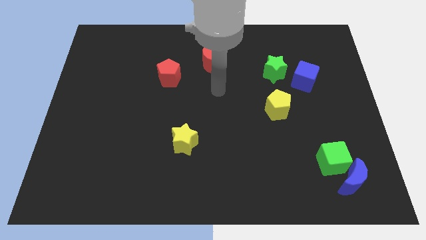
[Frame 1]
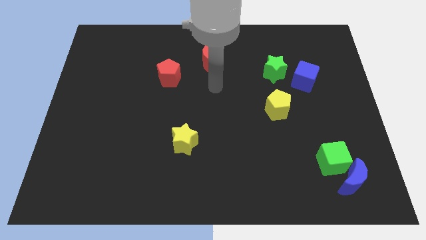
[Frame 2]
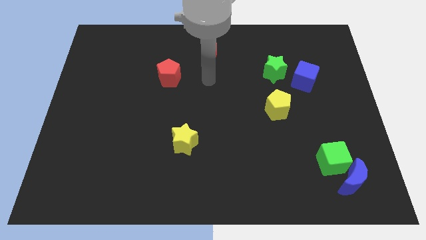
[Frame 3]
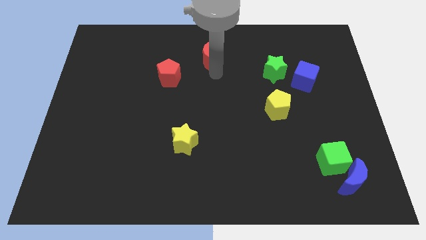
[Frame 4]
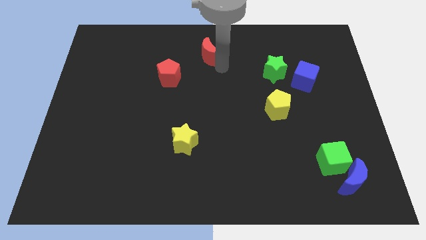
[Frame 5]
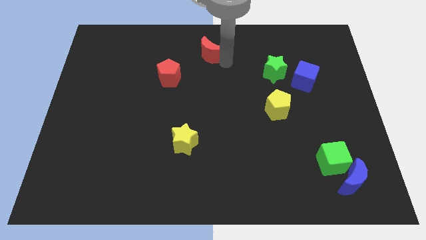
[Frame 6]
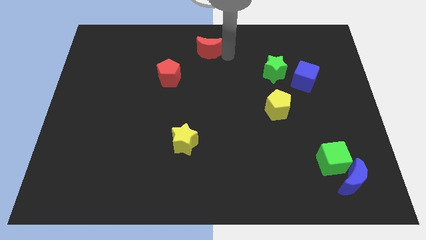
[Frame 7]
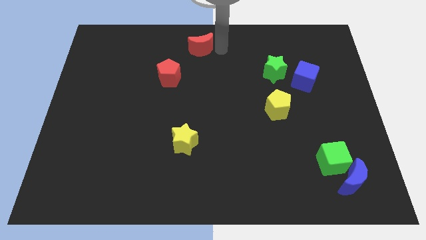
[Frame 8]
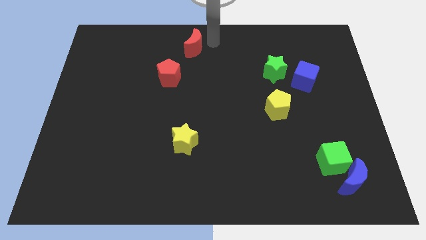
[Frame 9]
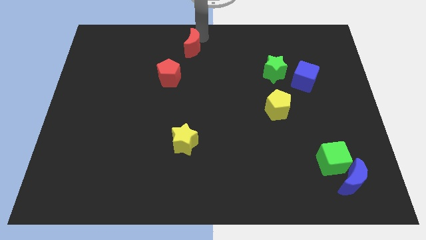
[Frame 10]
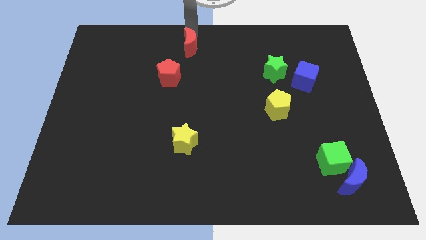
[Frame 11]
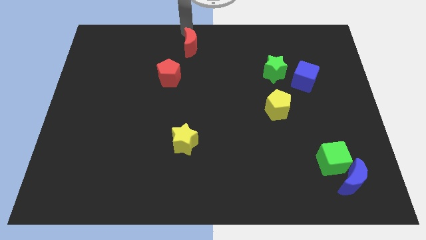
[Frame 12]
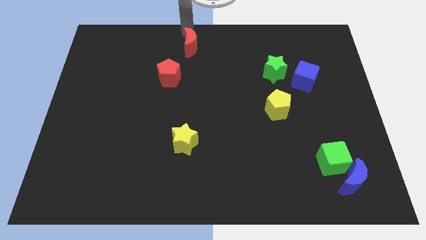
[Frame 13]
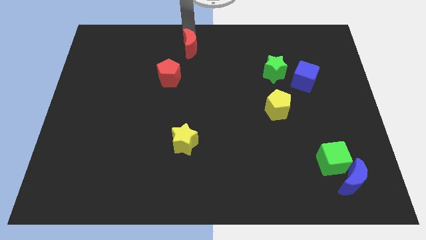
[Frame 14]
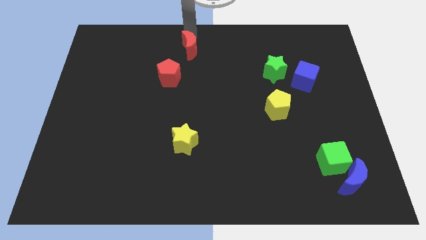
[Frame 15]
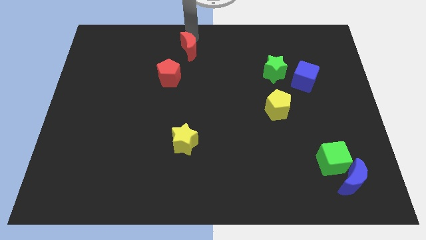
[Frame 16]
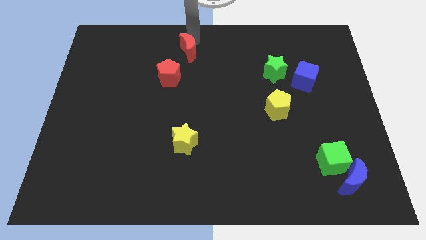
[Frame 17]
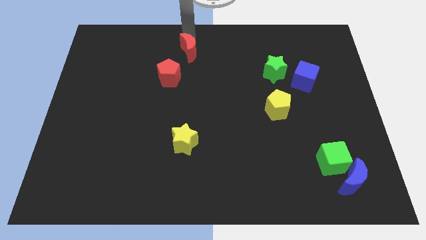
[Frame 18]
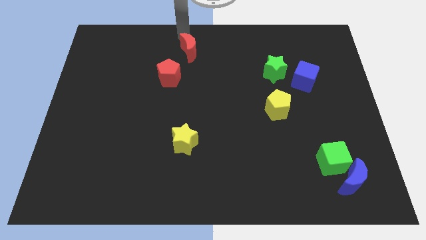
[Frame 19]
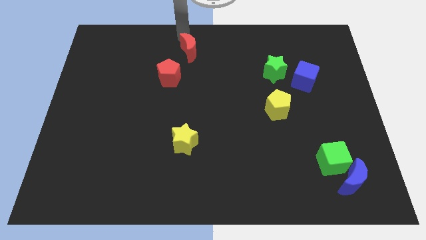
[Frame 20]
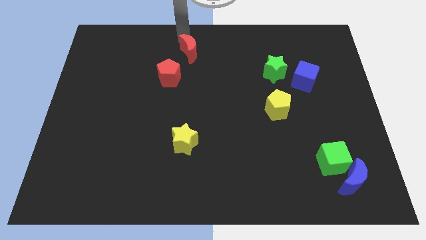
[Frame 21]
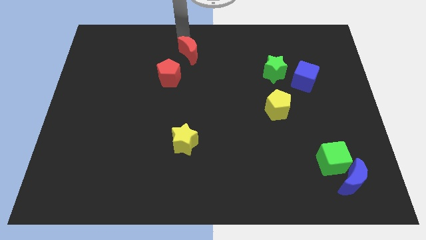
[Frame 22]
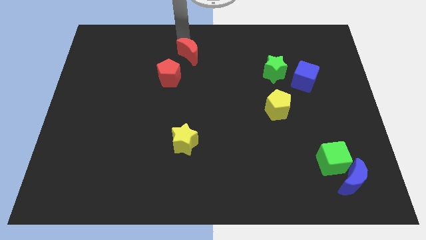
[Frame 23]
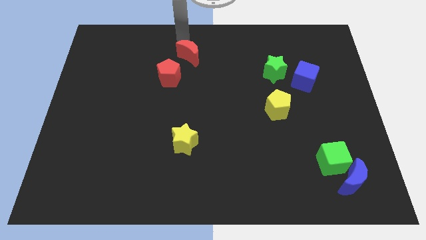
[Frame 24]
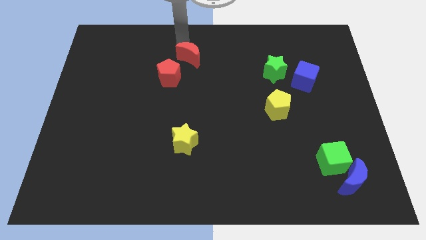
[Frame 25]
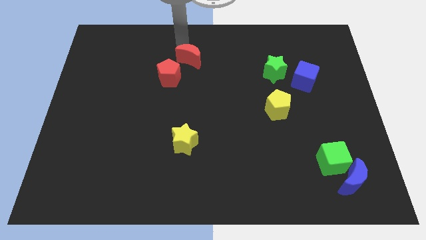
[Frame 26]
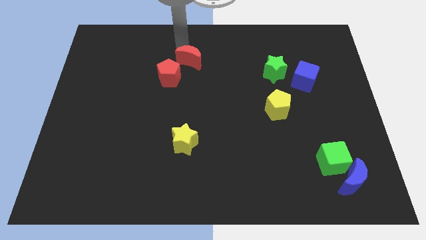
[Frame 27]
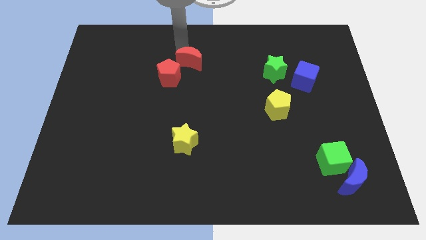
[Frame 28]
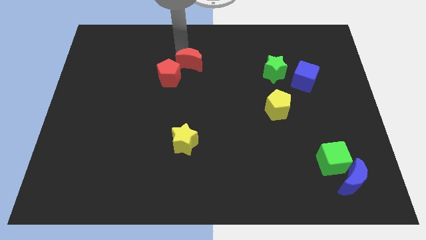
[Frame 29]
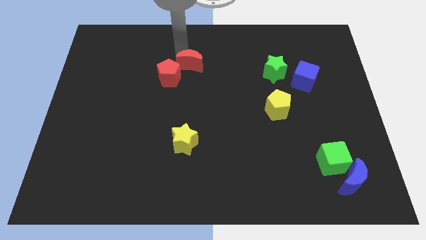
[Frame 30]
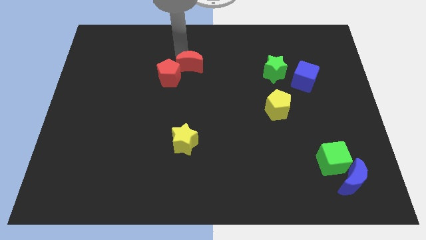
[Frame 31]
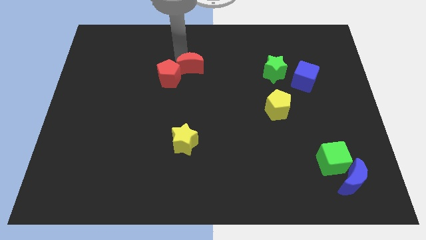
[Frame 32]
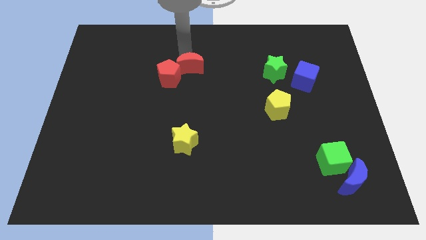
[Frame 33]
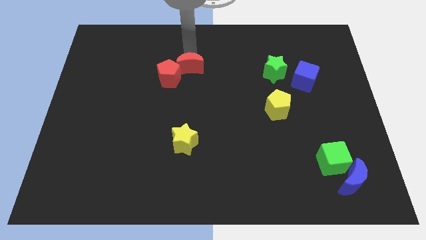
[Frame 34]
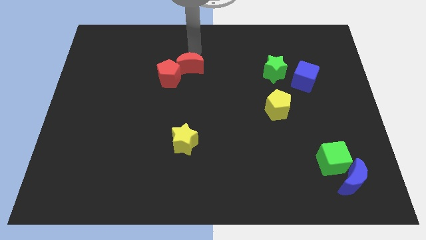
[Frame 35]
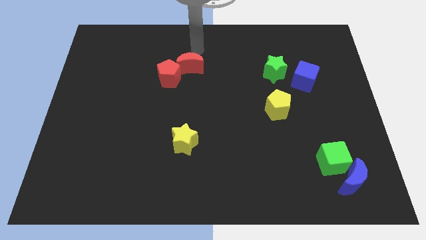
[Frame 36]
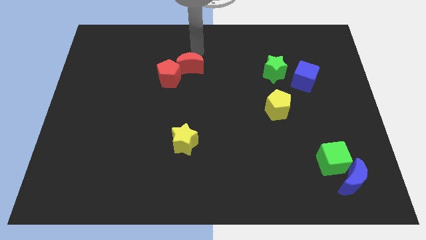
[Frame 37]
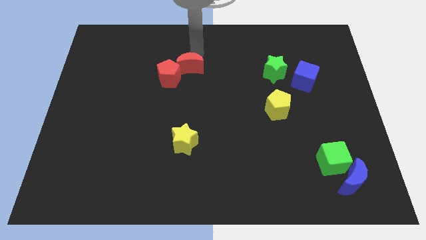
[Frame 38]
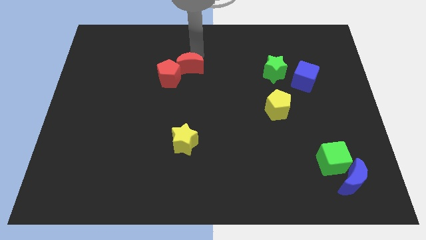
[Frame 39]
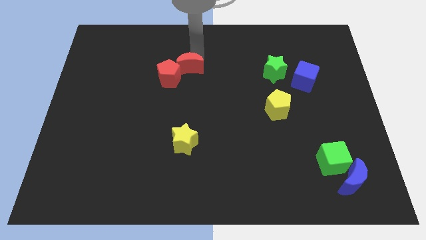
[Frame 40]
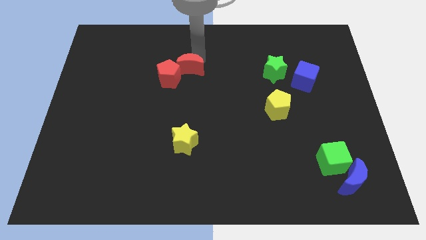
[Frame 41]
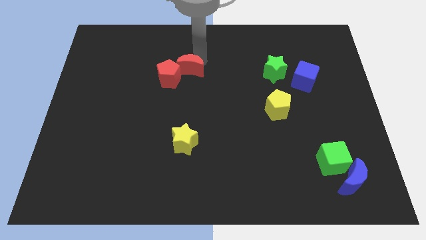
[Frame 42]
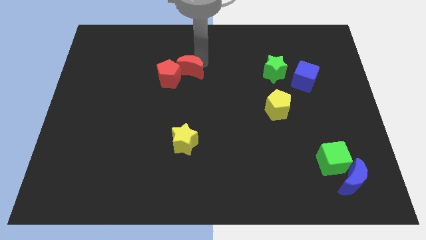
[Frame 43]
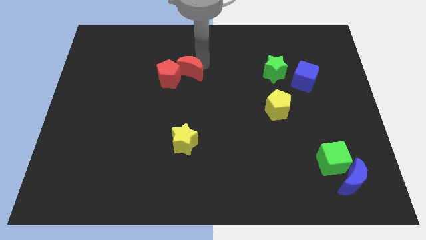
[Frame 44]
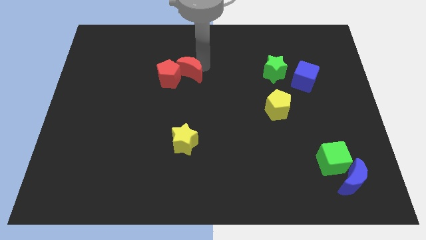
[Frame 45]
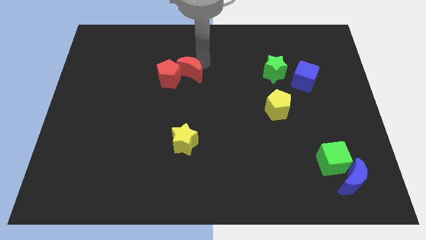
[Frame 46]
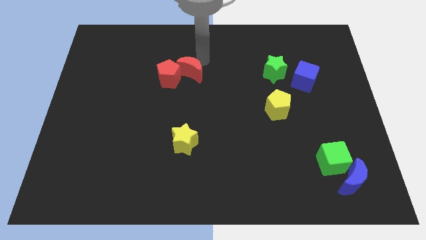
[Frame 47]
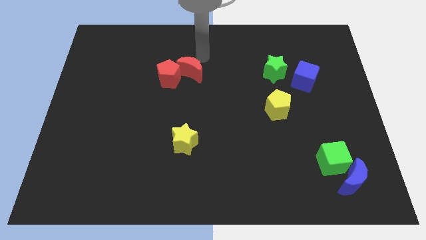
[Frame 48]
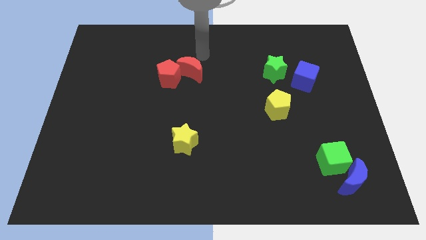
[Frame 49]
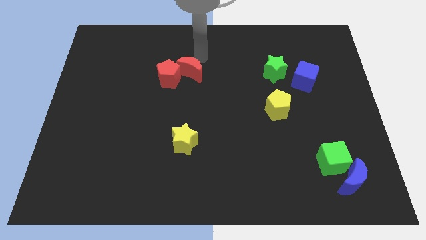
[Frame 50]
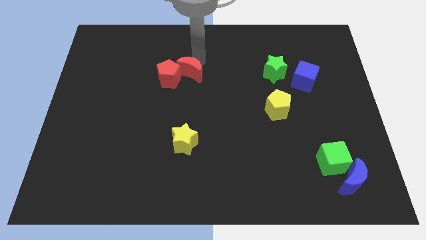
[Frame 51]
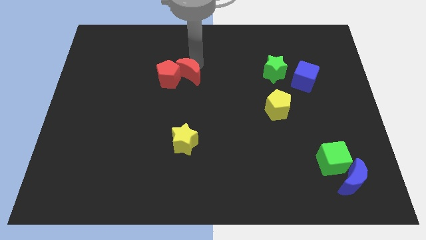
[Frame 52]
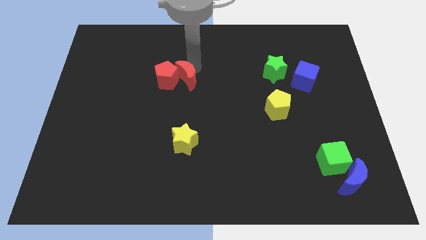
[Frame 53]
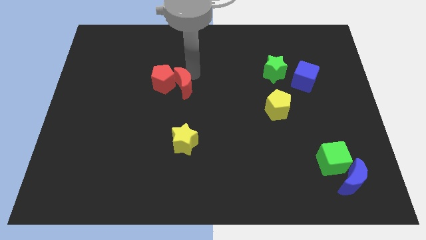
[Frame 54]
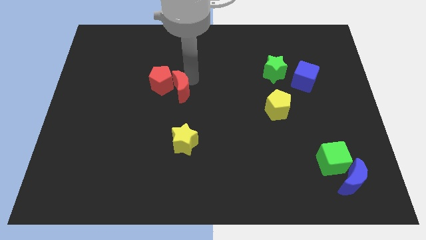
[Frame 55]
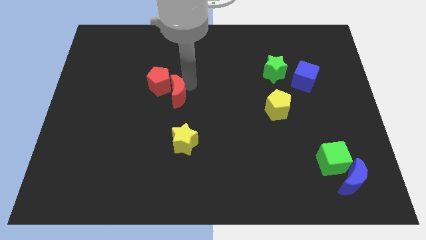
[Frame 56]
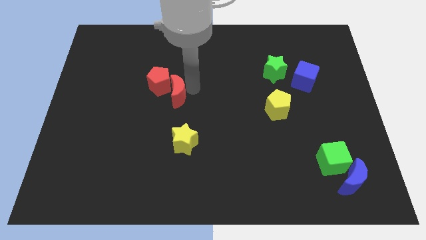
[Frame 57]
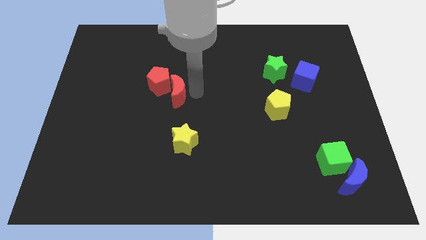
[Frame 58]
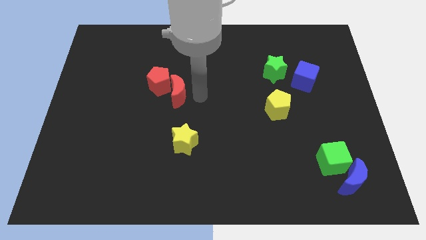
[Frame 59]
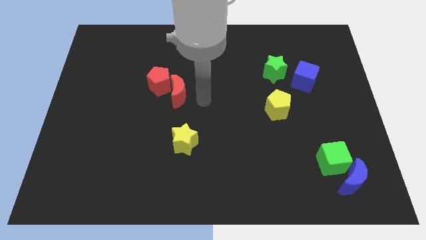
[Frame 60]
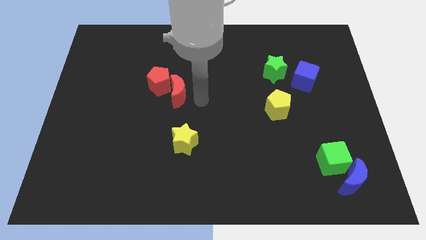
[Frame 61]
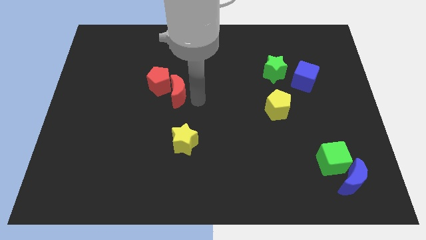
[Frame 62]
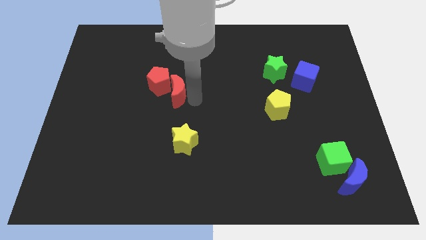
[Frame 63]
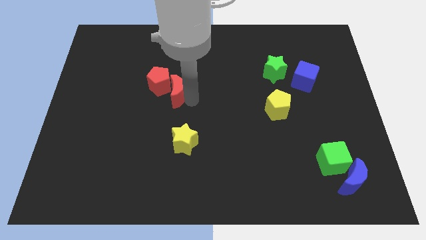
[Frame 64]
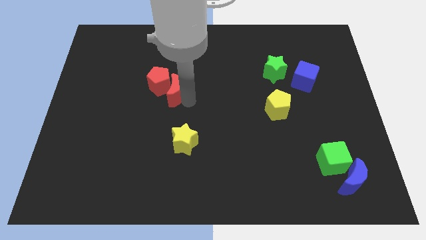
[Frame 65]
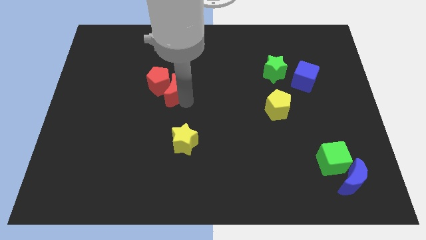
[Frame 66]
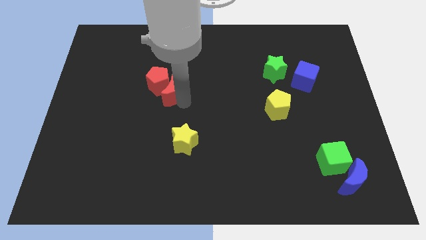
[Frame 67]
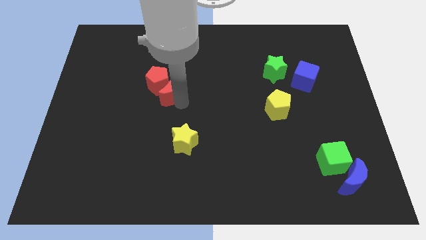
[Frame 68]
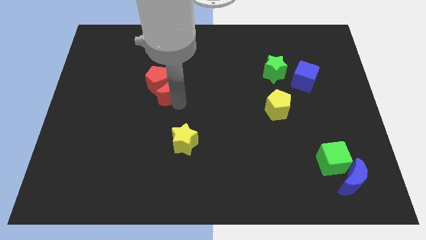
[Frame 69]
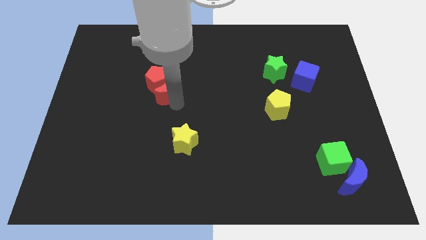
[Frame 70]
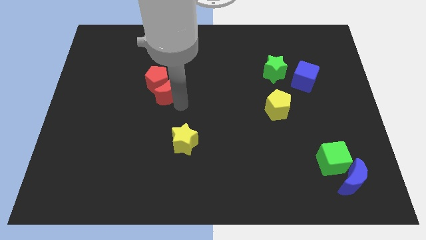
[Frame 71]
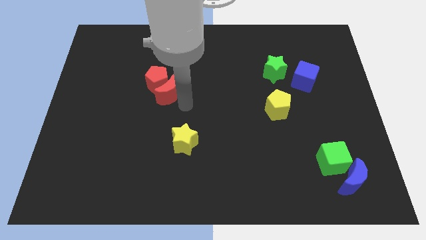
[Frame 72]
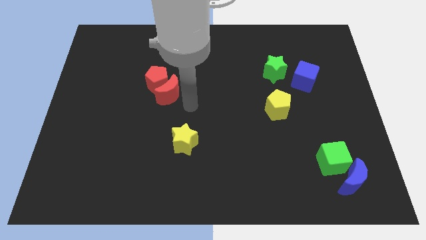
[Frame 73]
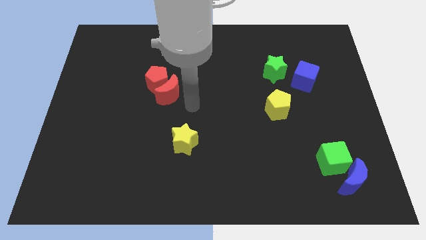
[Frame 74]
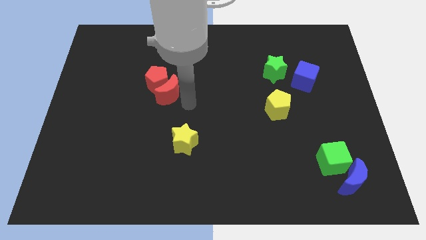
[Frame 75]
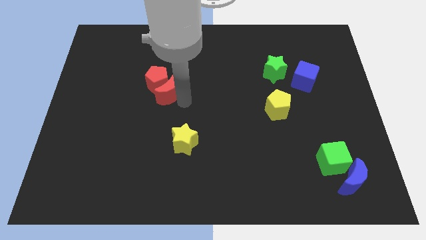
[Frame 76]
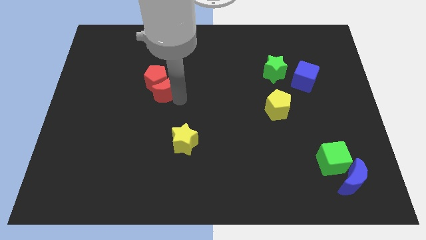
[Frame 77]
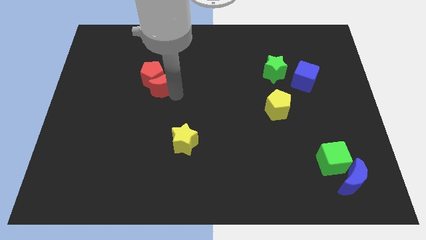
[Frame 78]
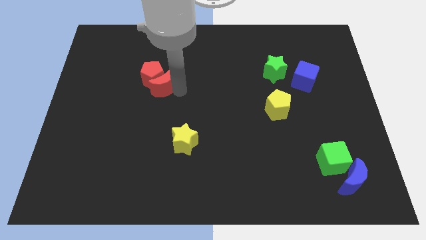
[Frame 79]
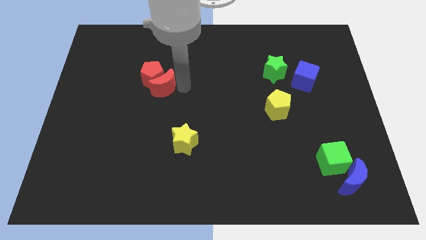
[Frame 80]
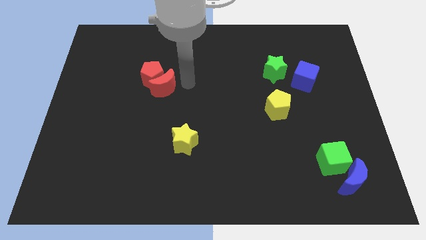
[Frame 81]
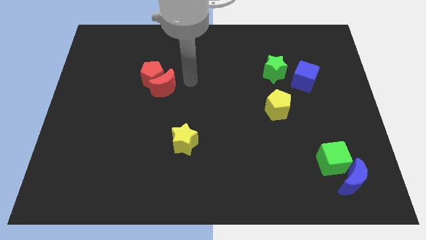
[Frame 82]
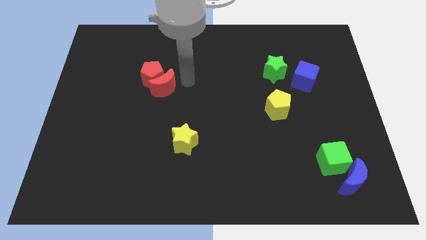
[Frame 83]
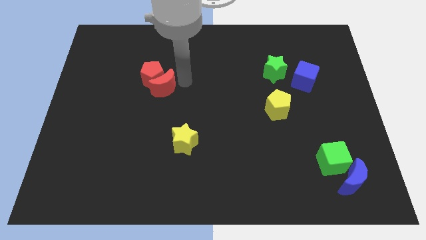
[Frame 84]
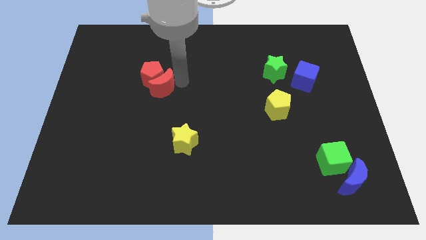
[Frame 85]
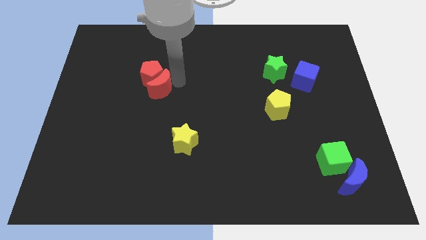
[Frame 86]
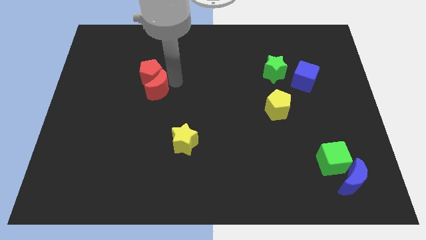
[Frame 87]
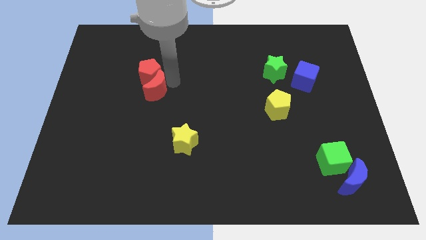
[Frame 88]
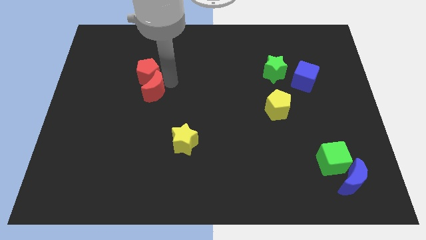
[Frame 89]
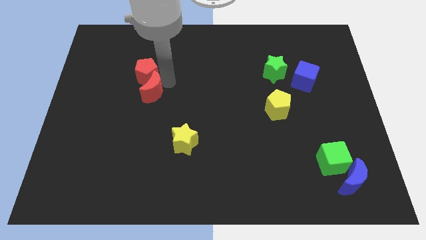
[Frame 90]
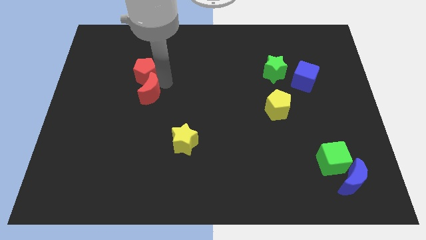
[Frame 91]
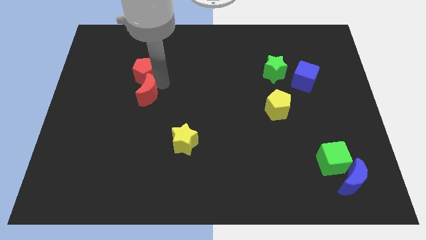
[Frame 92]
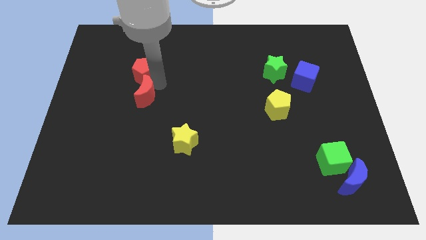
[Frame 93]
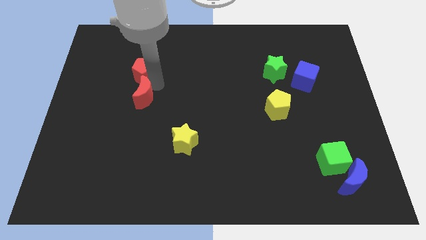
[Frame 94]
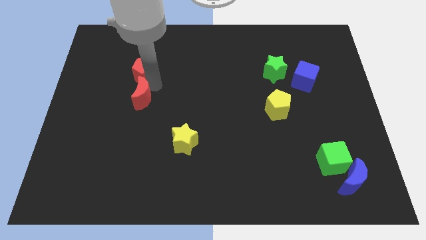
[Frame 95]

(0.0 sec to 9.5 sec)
push the red moon downwards and to the left diagonally
